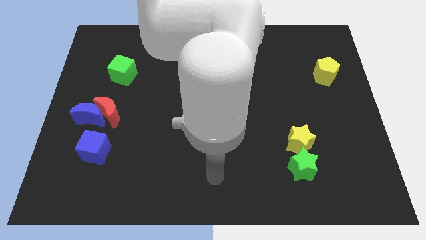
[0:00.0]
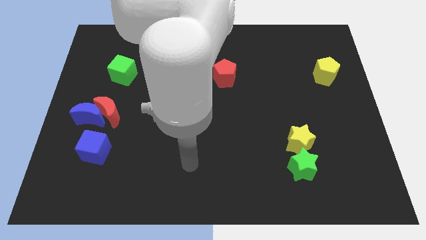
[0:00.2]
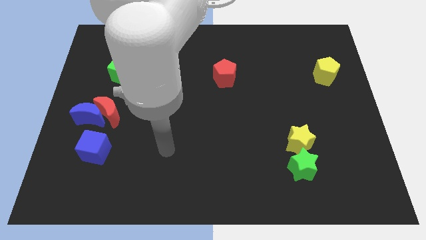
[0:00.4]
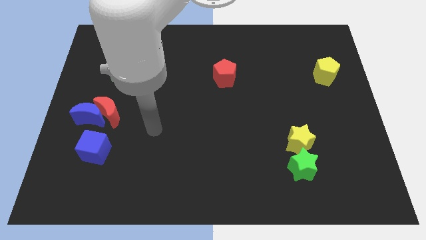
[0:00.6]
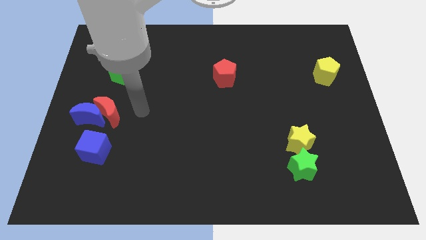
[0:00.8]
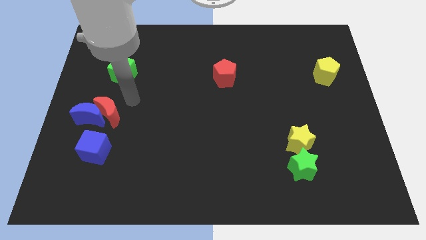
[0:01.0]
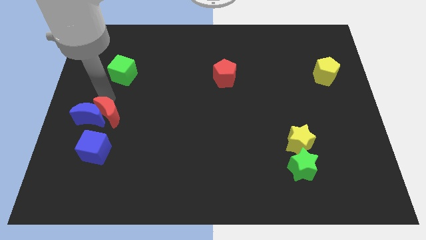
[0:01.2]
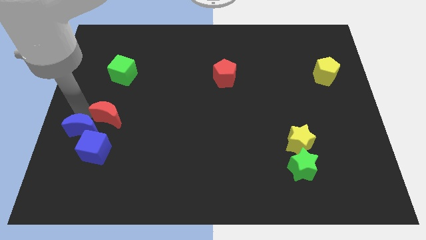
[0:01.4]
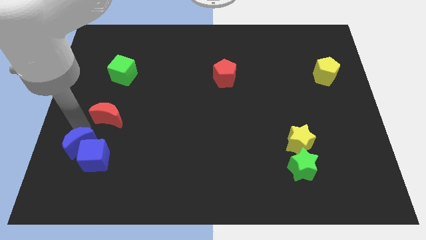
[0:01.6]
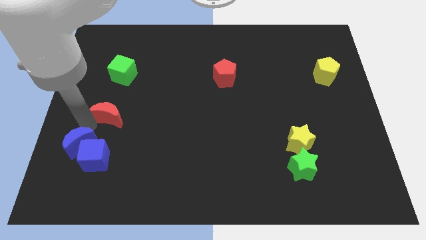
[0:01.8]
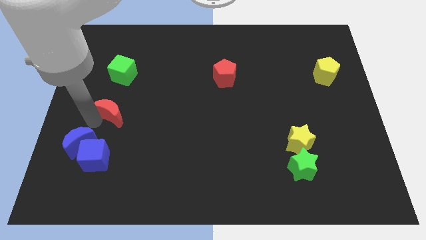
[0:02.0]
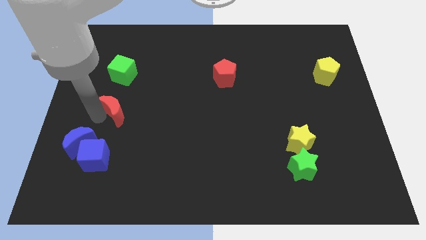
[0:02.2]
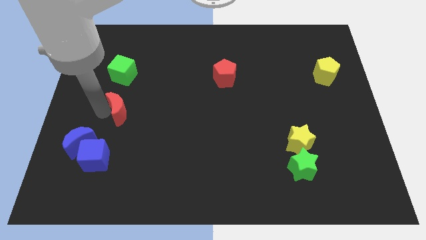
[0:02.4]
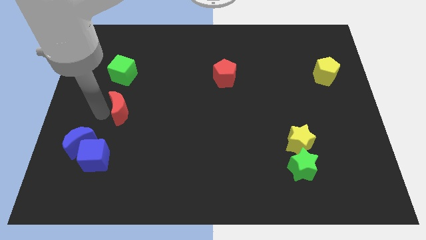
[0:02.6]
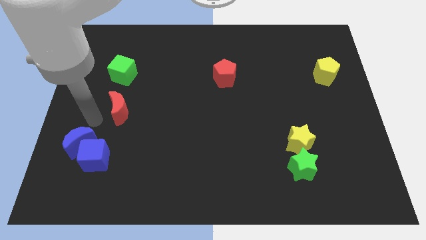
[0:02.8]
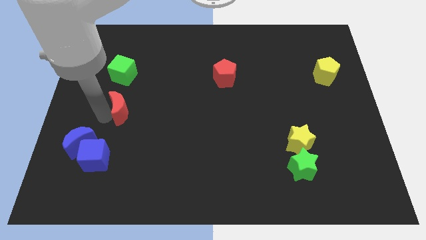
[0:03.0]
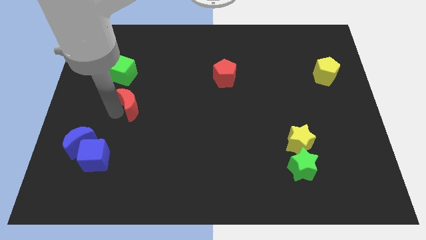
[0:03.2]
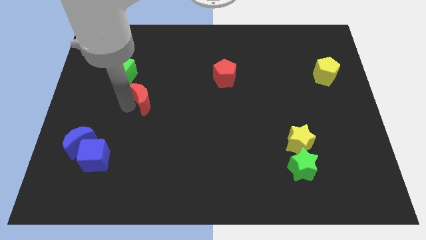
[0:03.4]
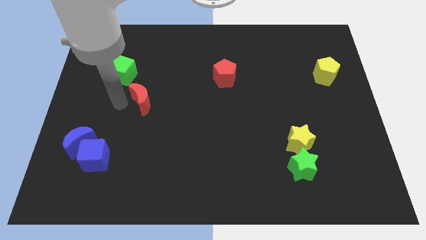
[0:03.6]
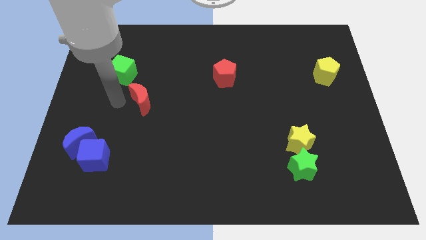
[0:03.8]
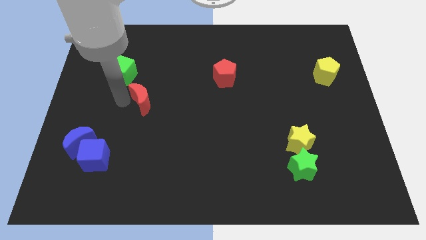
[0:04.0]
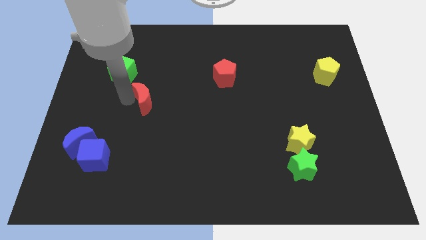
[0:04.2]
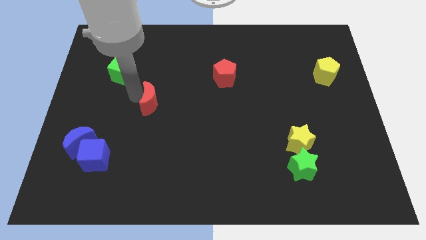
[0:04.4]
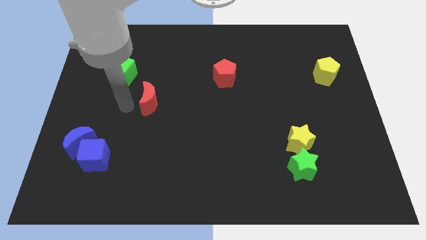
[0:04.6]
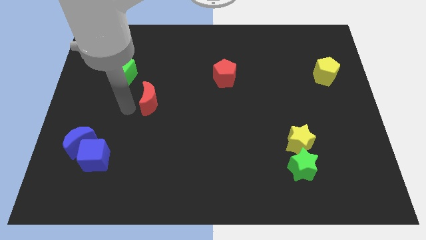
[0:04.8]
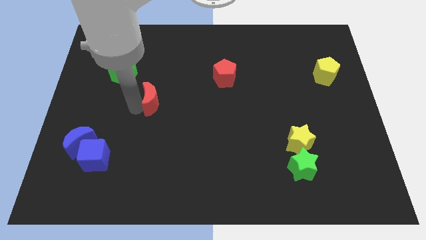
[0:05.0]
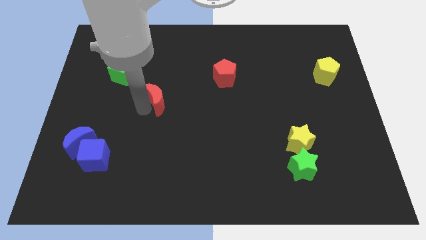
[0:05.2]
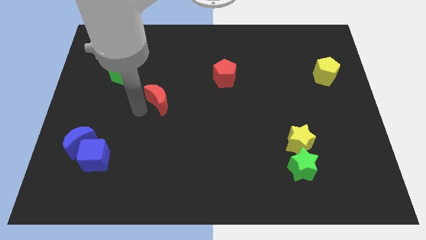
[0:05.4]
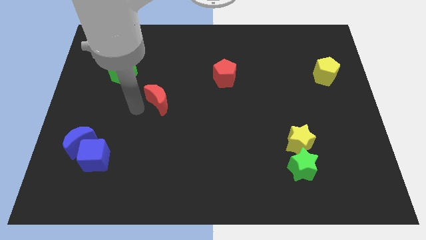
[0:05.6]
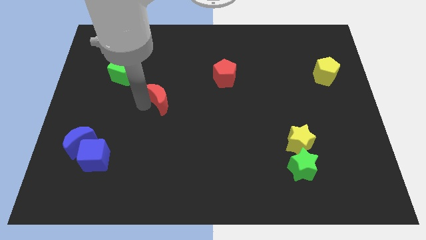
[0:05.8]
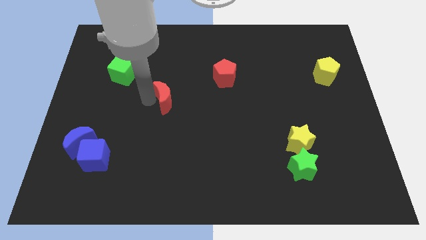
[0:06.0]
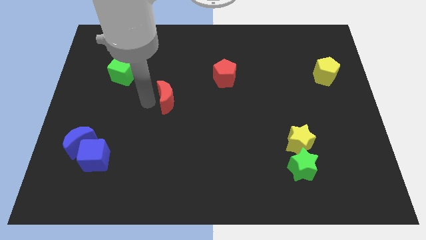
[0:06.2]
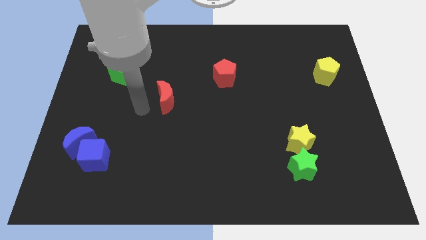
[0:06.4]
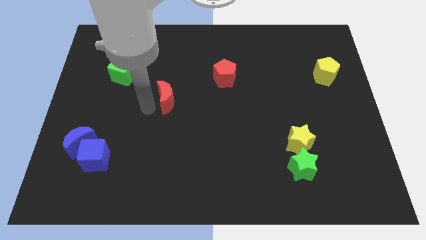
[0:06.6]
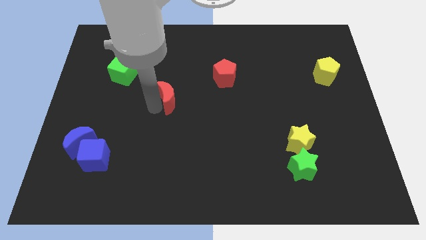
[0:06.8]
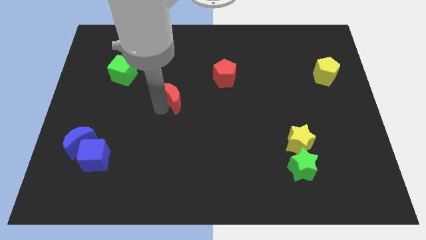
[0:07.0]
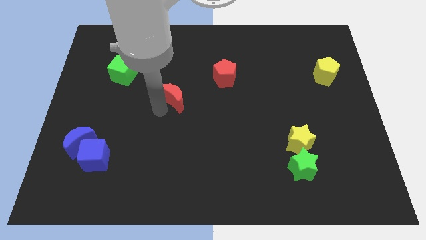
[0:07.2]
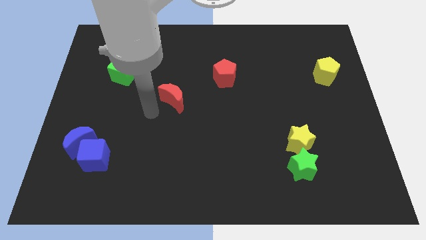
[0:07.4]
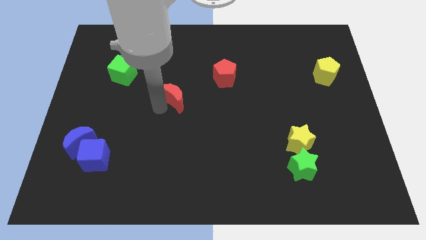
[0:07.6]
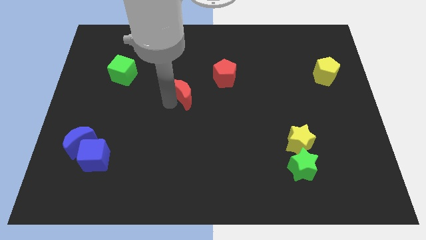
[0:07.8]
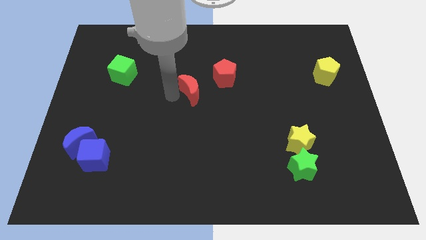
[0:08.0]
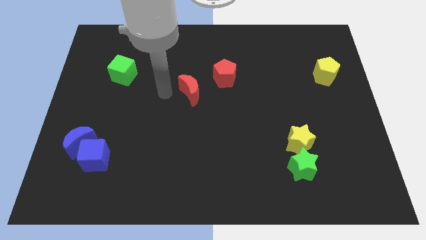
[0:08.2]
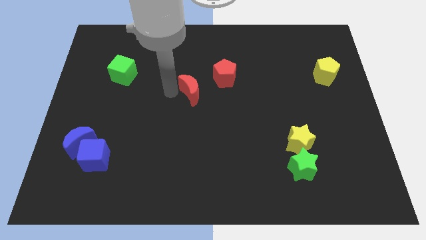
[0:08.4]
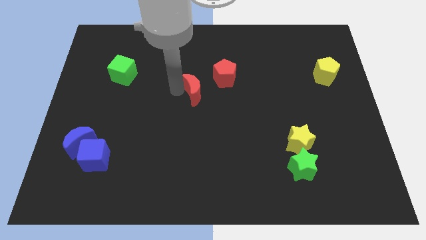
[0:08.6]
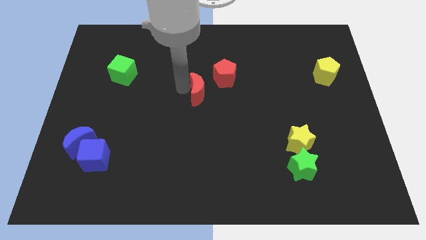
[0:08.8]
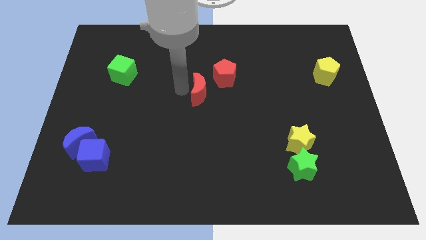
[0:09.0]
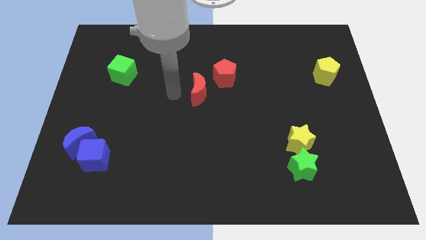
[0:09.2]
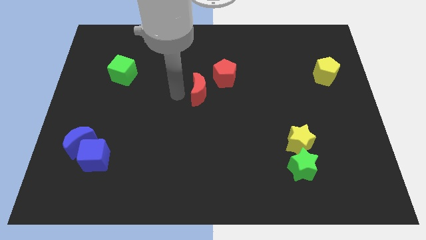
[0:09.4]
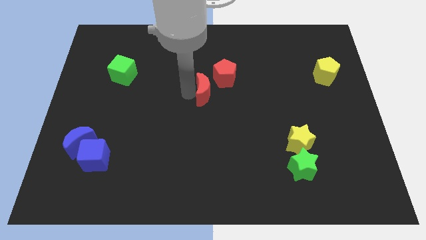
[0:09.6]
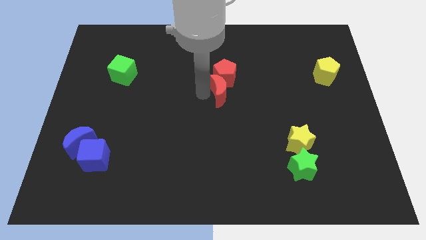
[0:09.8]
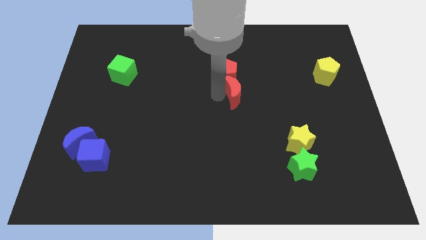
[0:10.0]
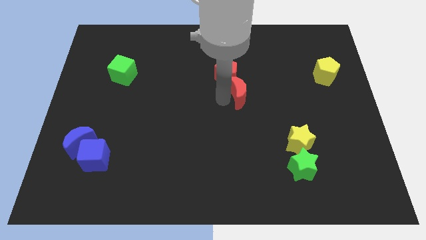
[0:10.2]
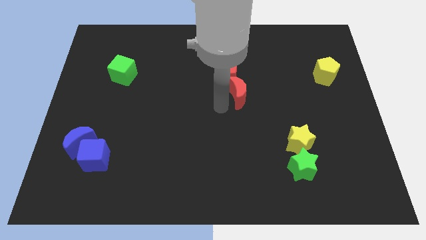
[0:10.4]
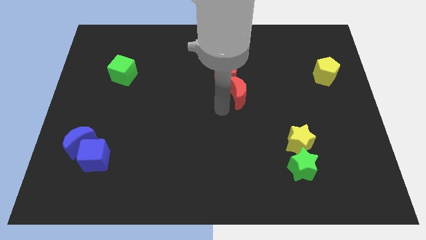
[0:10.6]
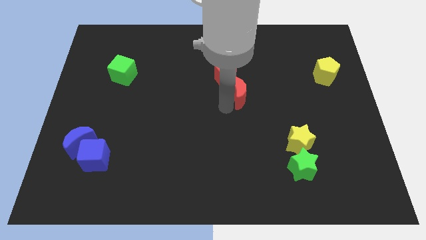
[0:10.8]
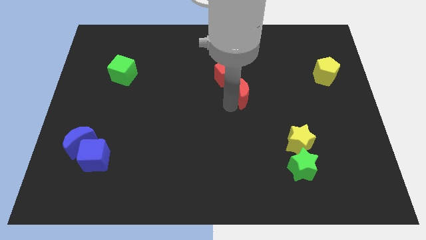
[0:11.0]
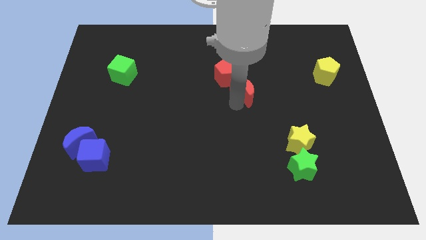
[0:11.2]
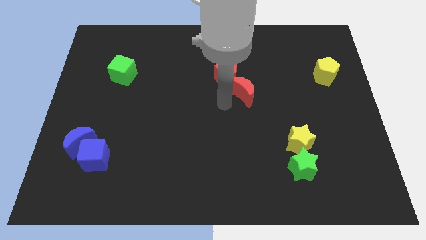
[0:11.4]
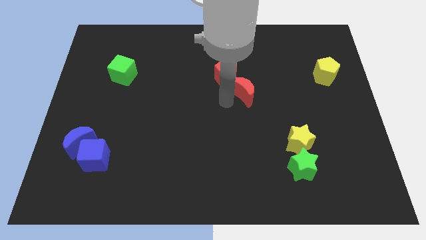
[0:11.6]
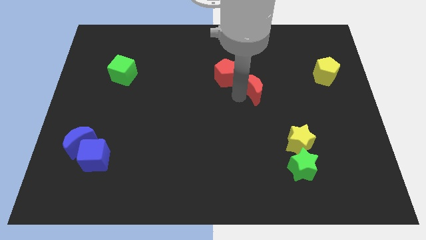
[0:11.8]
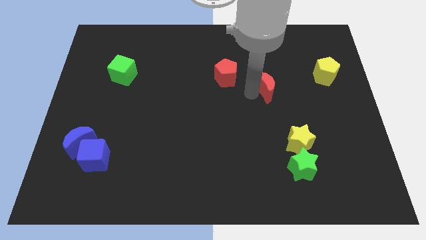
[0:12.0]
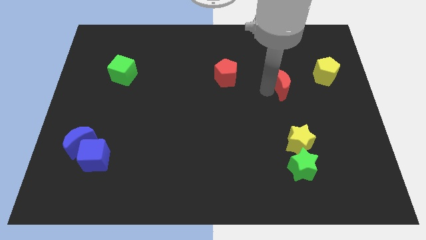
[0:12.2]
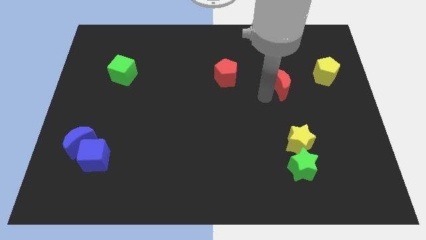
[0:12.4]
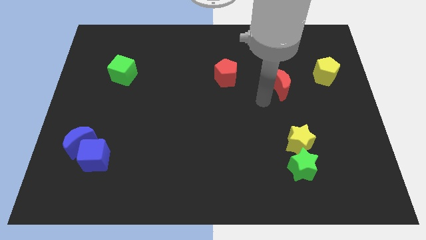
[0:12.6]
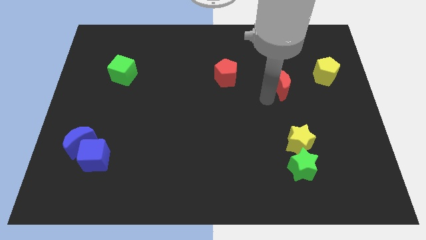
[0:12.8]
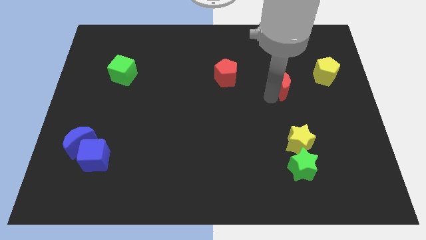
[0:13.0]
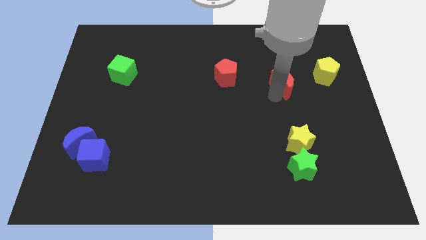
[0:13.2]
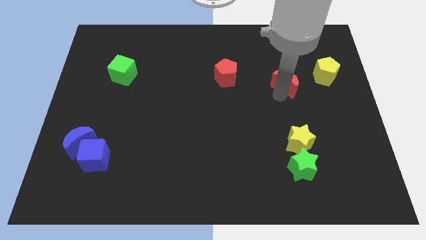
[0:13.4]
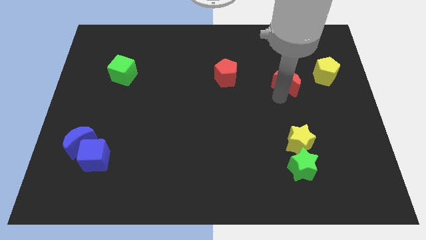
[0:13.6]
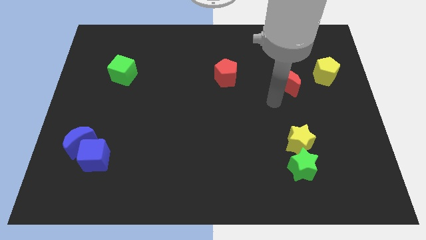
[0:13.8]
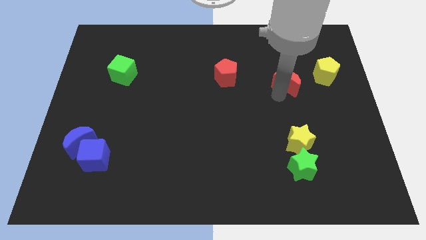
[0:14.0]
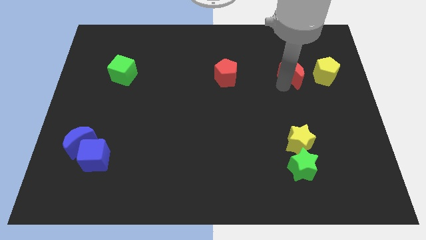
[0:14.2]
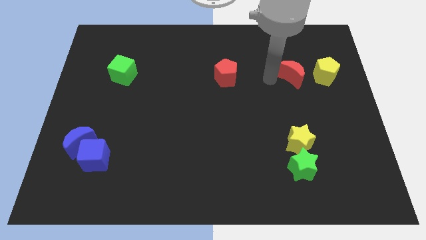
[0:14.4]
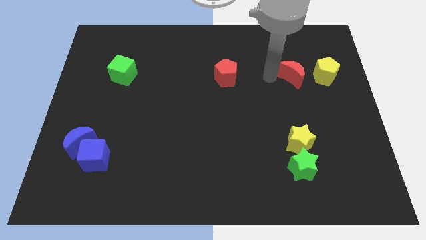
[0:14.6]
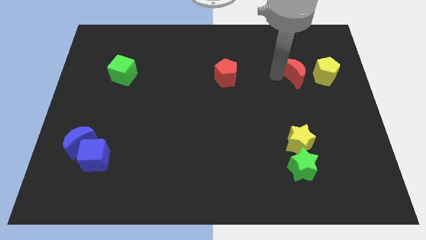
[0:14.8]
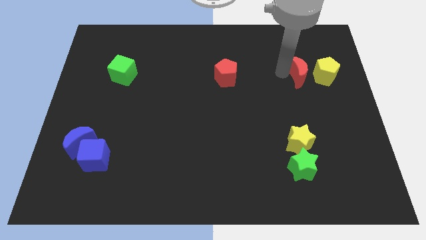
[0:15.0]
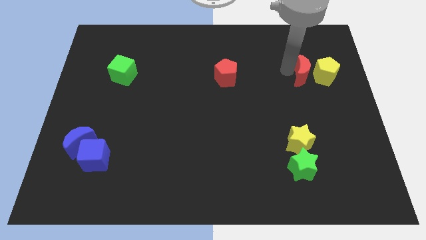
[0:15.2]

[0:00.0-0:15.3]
put the red moon towards the yellow pentagon
